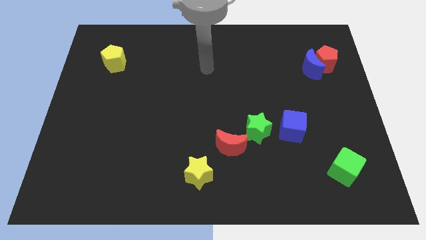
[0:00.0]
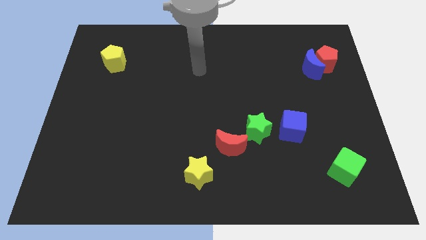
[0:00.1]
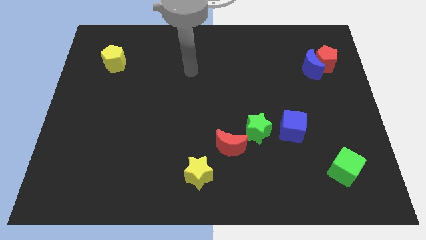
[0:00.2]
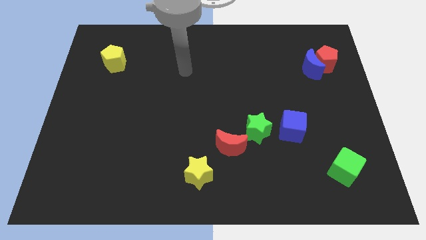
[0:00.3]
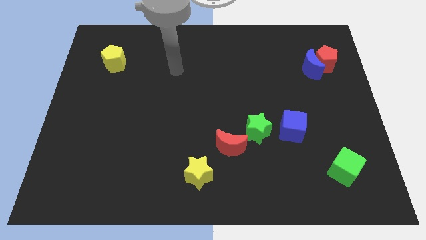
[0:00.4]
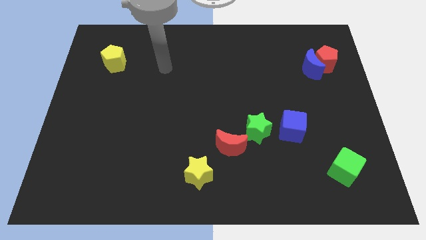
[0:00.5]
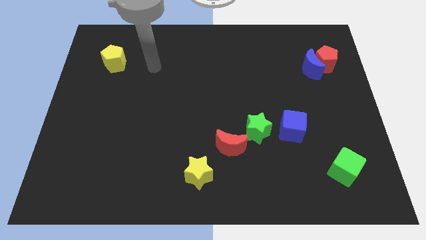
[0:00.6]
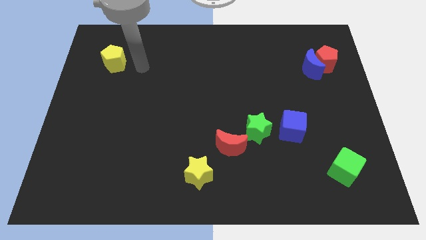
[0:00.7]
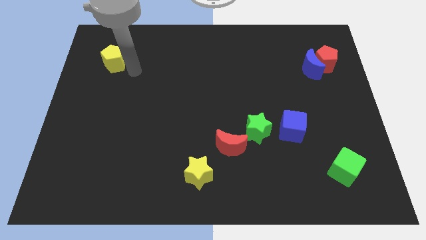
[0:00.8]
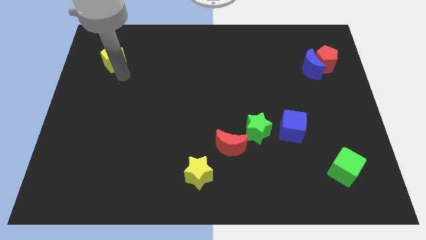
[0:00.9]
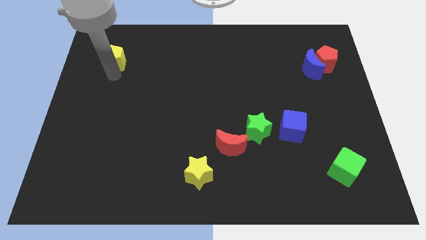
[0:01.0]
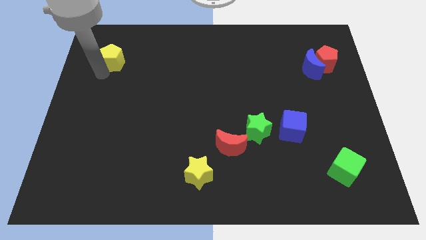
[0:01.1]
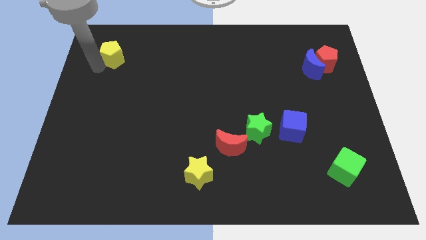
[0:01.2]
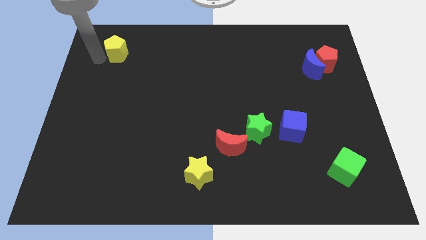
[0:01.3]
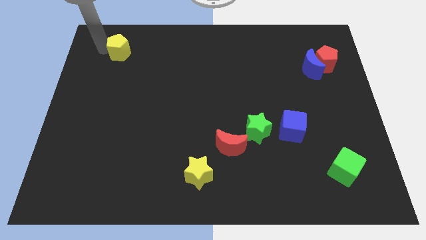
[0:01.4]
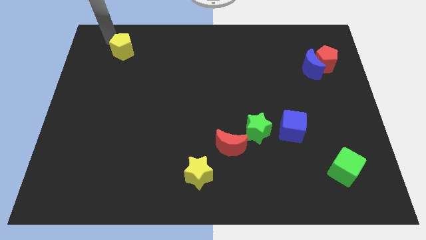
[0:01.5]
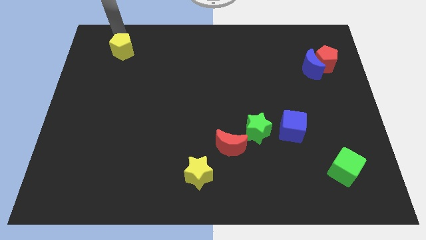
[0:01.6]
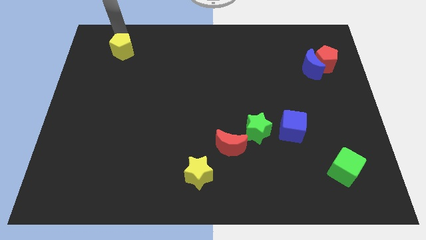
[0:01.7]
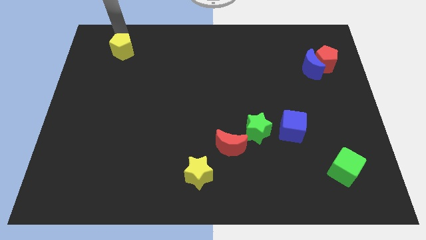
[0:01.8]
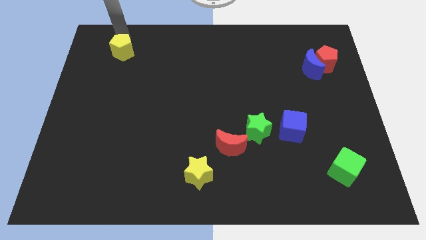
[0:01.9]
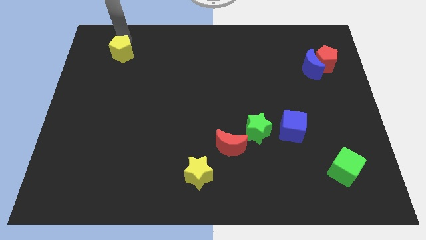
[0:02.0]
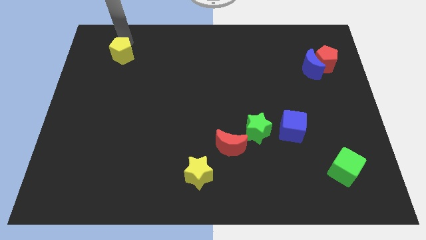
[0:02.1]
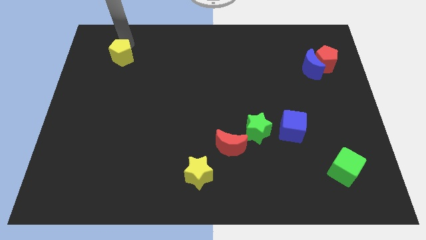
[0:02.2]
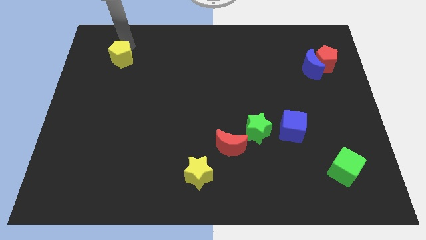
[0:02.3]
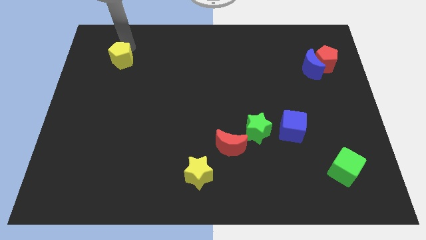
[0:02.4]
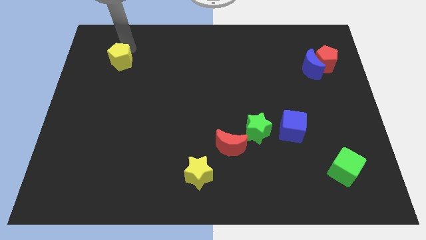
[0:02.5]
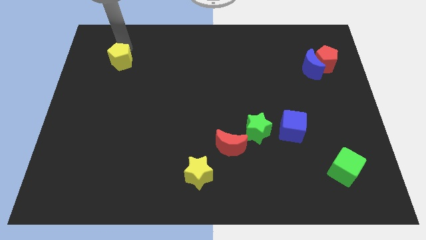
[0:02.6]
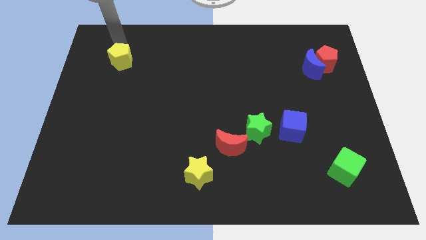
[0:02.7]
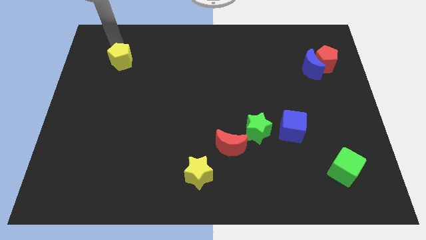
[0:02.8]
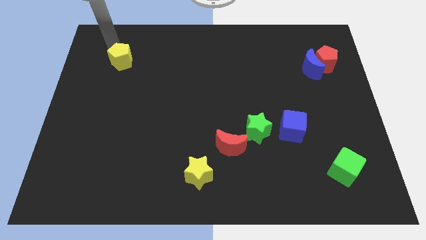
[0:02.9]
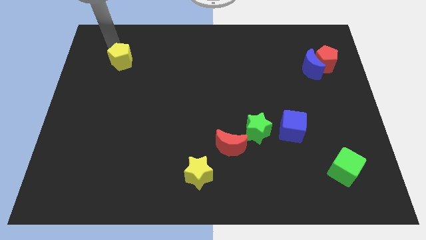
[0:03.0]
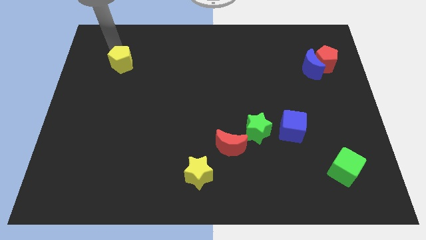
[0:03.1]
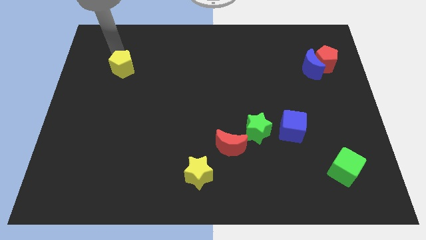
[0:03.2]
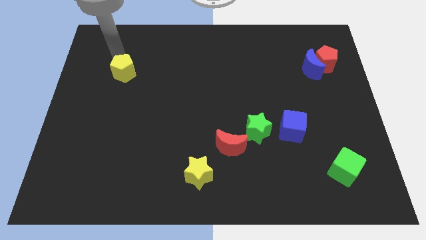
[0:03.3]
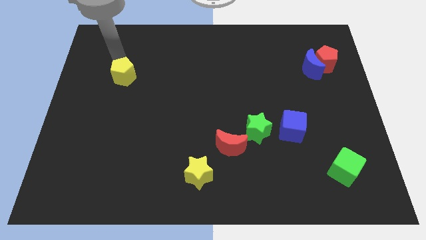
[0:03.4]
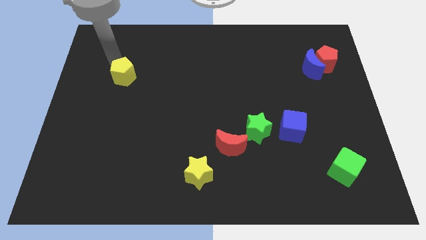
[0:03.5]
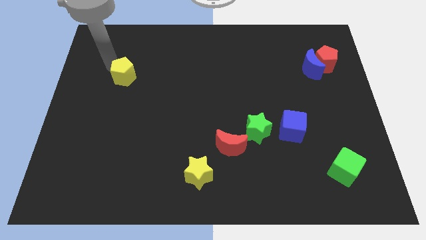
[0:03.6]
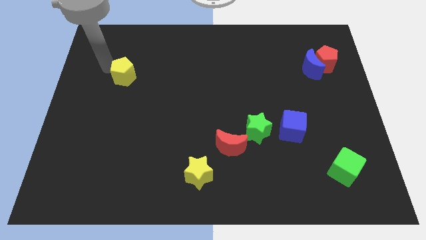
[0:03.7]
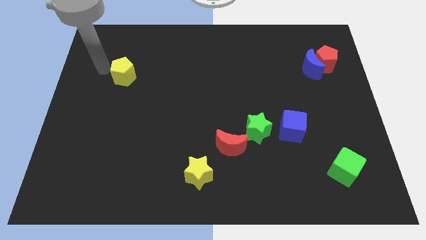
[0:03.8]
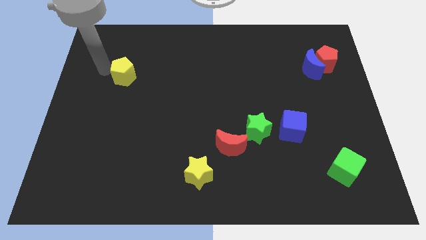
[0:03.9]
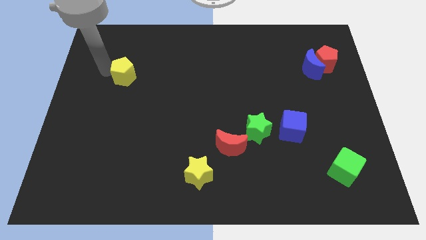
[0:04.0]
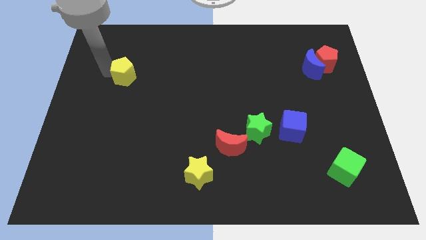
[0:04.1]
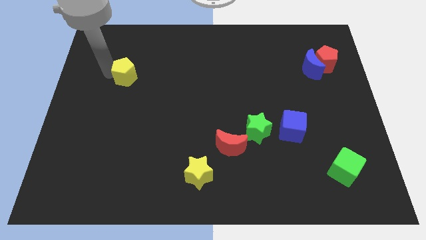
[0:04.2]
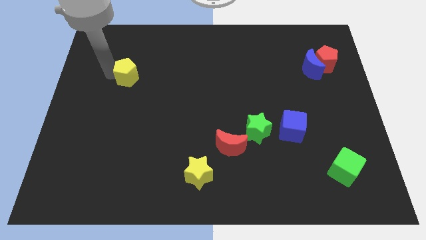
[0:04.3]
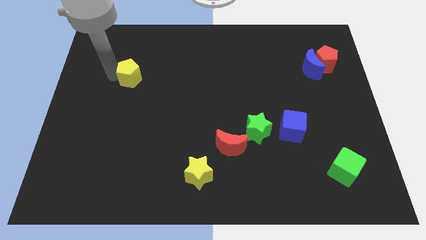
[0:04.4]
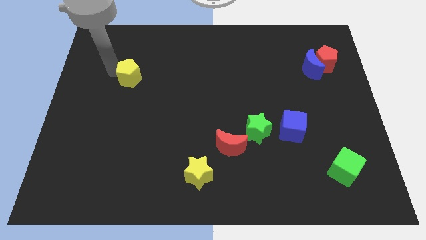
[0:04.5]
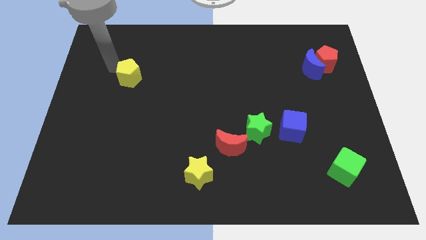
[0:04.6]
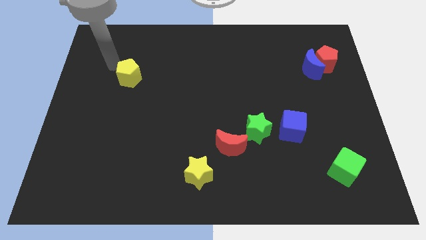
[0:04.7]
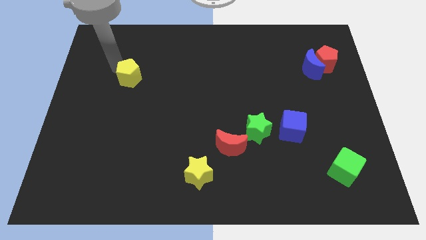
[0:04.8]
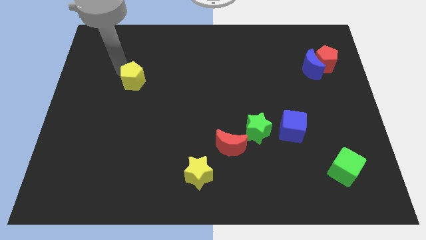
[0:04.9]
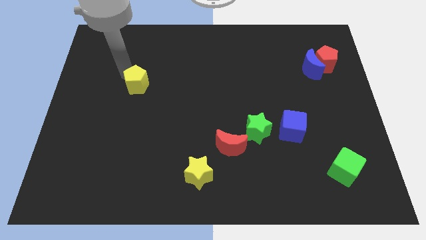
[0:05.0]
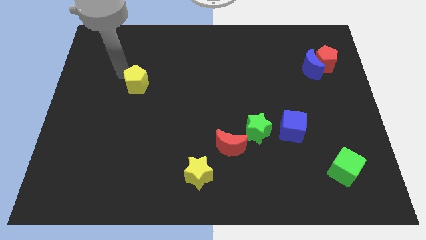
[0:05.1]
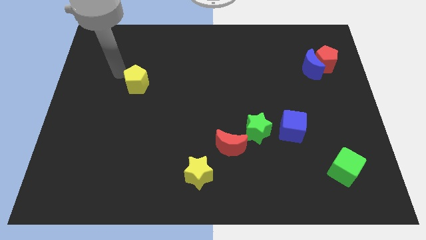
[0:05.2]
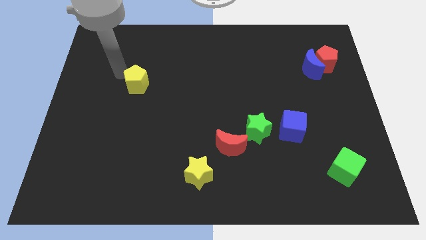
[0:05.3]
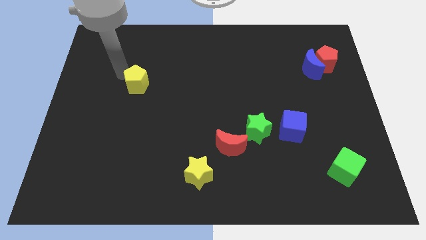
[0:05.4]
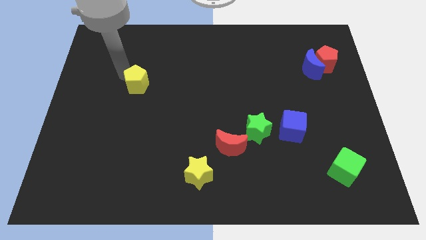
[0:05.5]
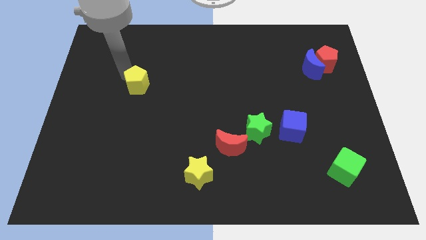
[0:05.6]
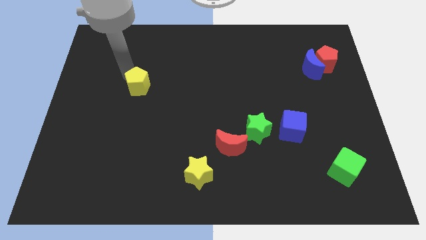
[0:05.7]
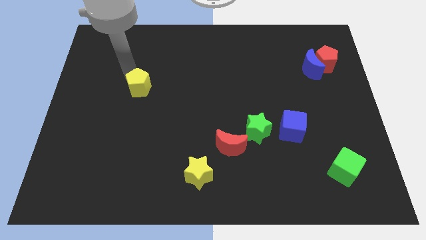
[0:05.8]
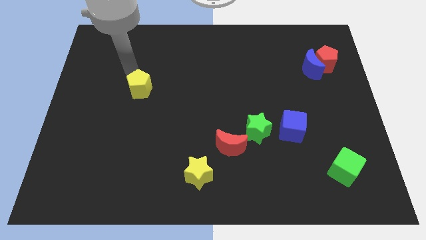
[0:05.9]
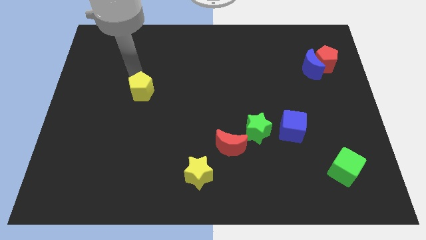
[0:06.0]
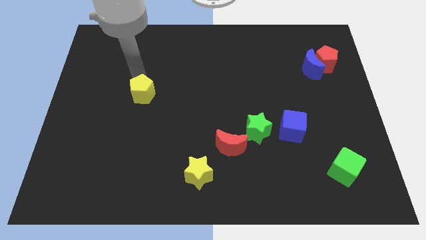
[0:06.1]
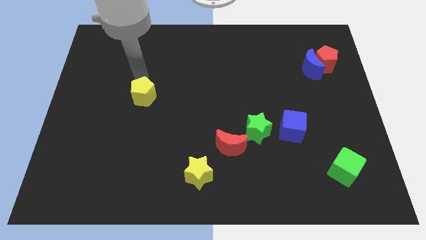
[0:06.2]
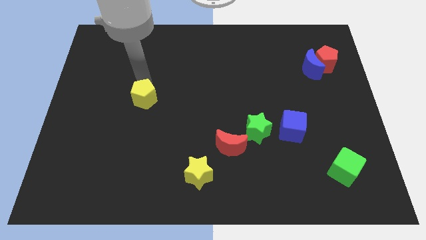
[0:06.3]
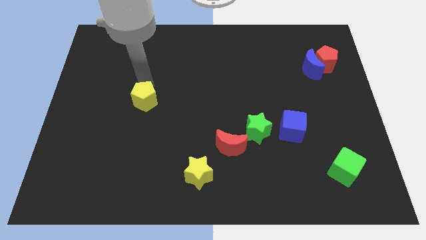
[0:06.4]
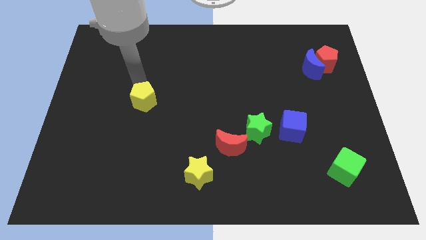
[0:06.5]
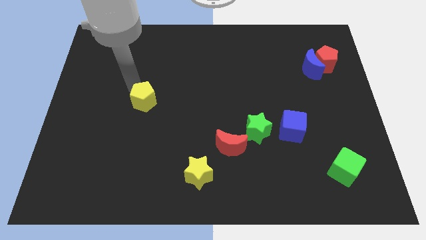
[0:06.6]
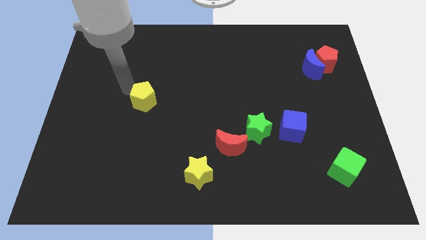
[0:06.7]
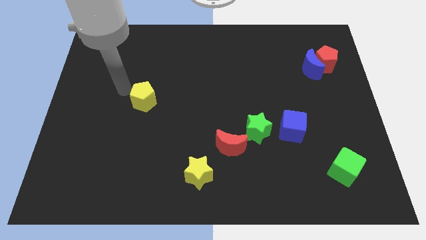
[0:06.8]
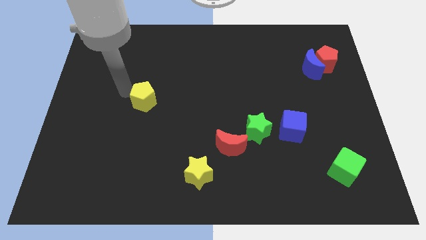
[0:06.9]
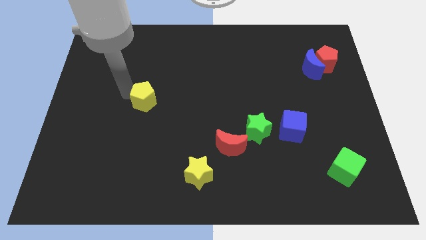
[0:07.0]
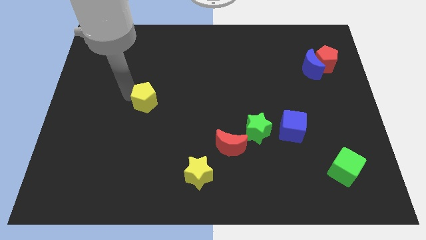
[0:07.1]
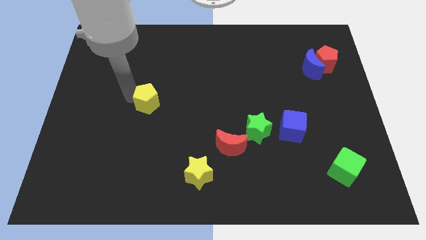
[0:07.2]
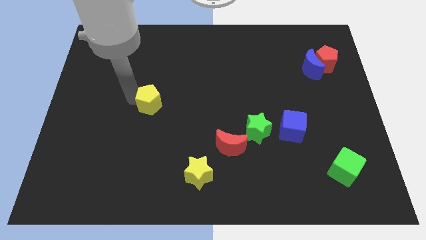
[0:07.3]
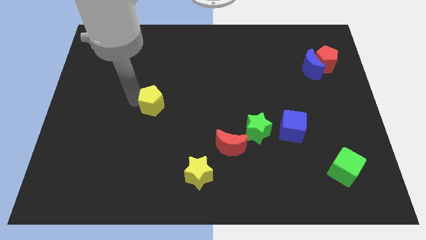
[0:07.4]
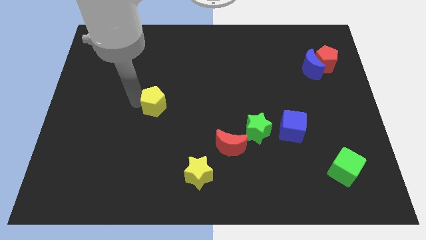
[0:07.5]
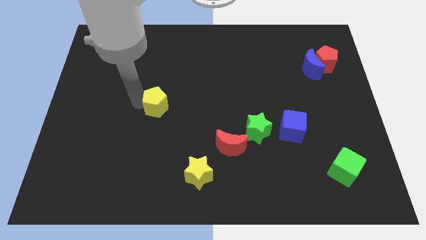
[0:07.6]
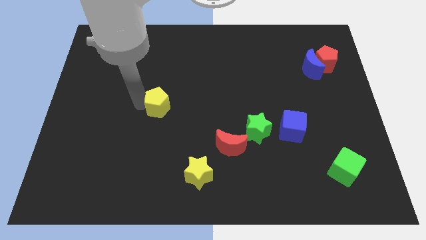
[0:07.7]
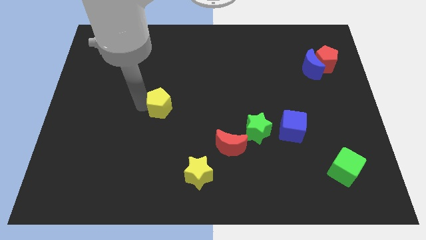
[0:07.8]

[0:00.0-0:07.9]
move the yellow pentagon diagonally downwards and right

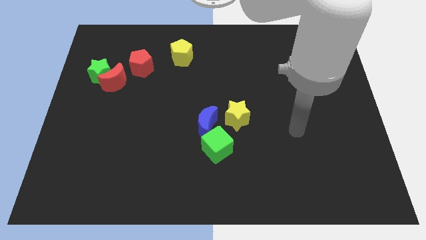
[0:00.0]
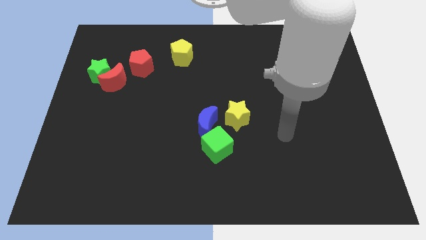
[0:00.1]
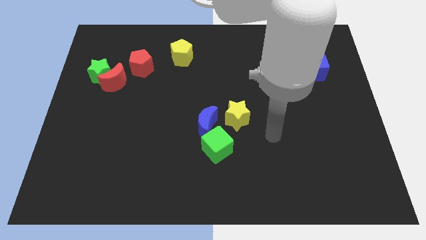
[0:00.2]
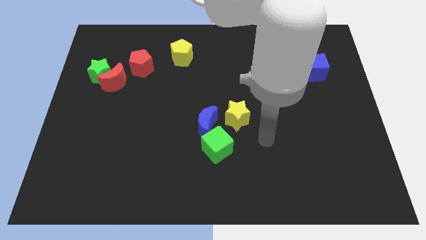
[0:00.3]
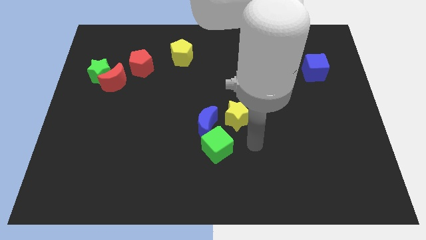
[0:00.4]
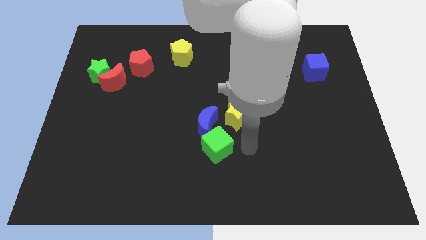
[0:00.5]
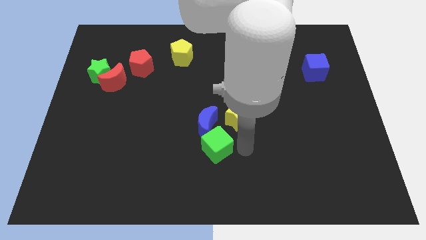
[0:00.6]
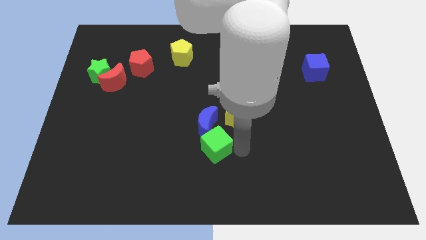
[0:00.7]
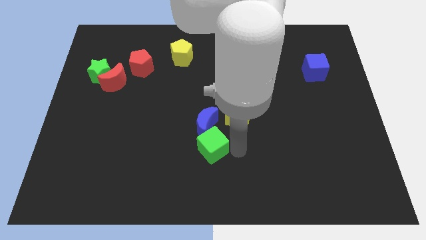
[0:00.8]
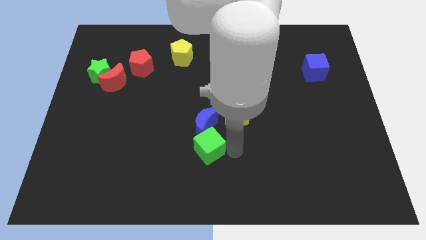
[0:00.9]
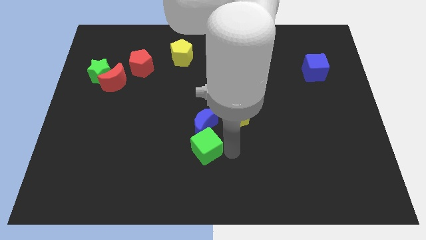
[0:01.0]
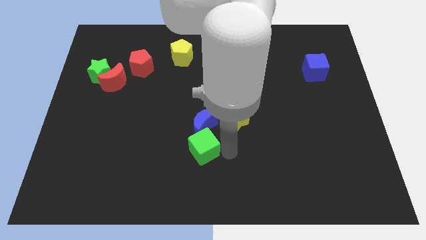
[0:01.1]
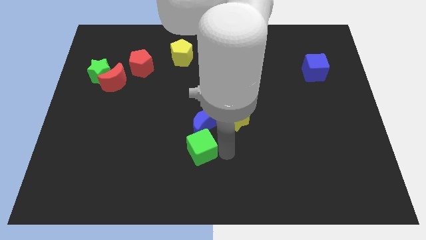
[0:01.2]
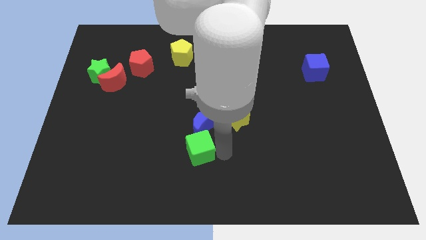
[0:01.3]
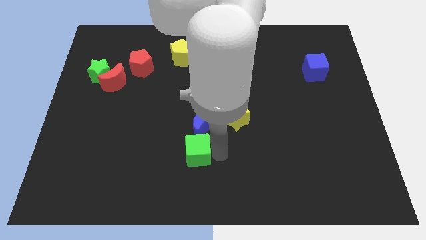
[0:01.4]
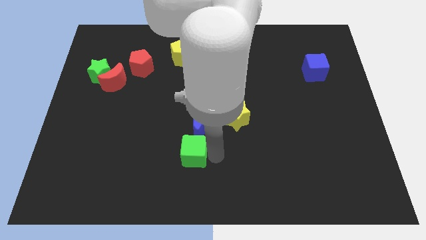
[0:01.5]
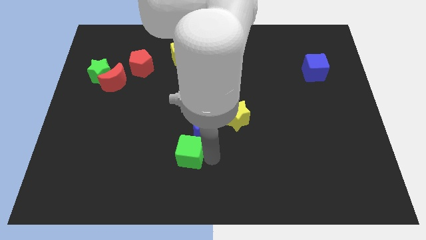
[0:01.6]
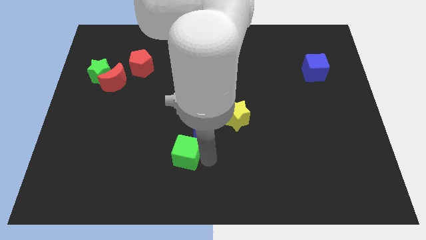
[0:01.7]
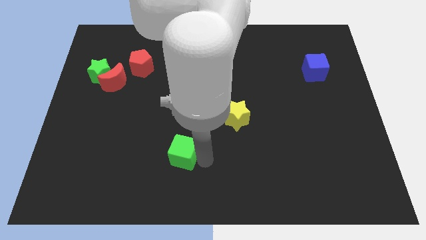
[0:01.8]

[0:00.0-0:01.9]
push the green cube a little bit left
